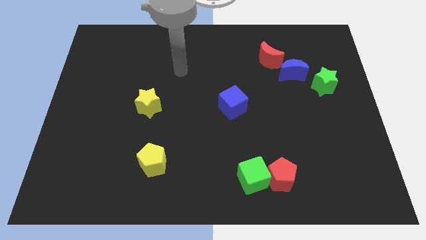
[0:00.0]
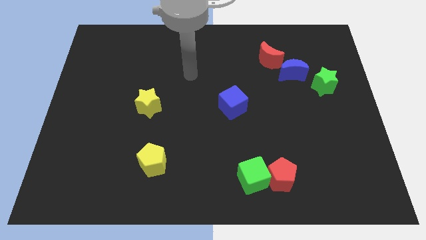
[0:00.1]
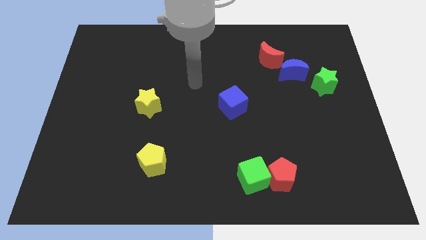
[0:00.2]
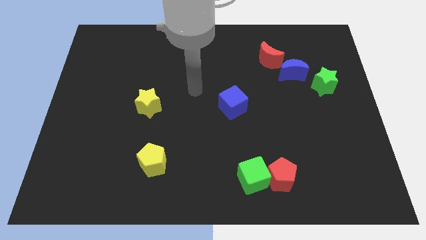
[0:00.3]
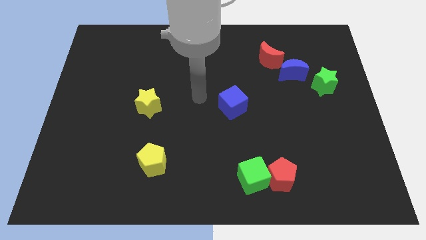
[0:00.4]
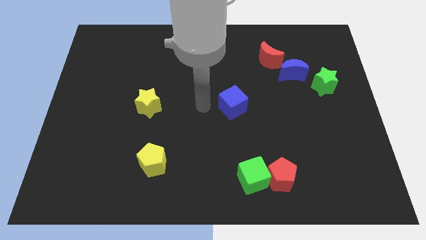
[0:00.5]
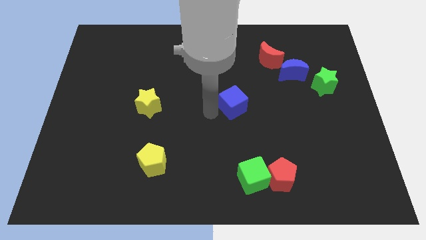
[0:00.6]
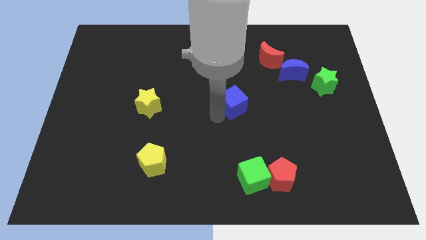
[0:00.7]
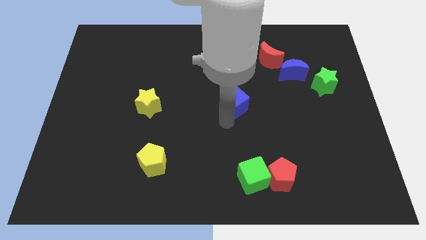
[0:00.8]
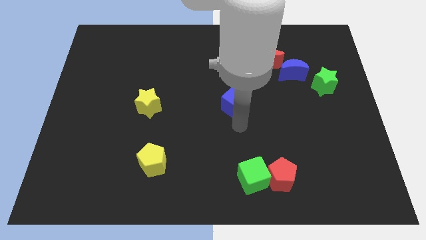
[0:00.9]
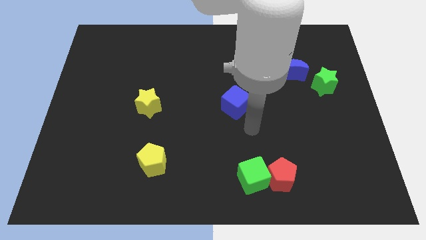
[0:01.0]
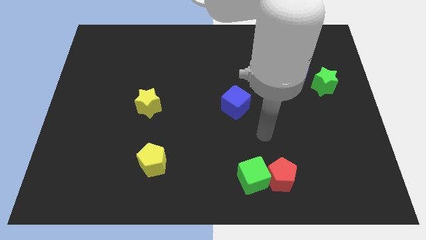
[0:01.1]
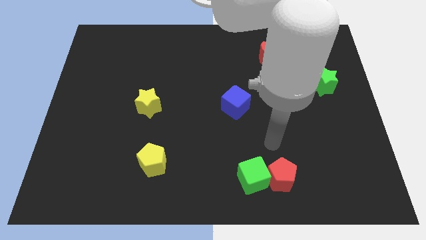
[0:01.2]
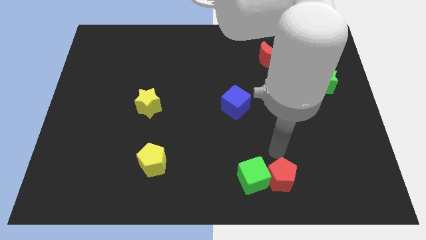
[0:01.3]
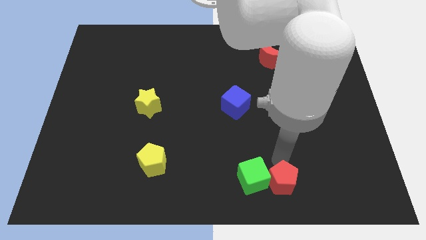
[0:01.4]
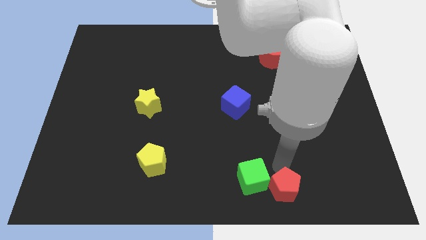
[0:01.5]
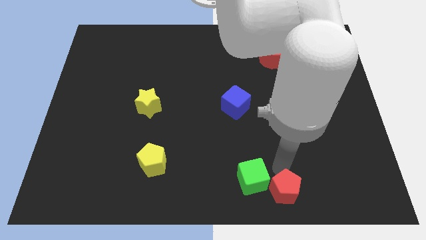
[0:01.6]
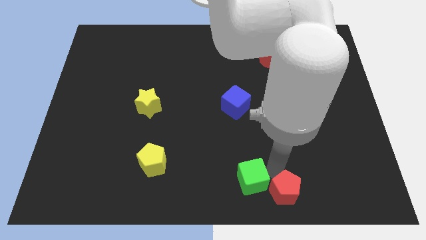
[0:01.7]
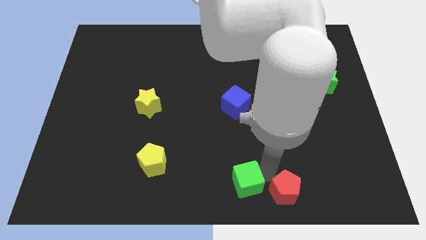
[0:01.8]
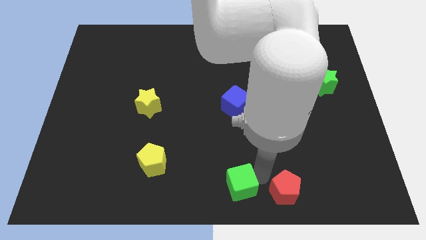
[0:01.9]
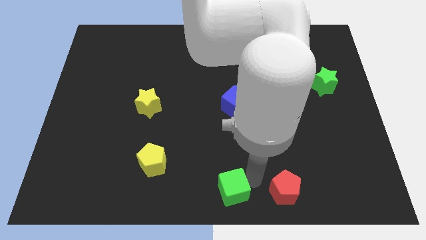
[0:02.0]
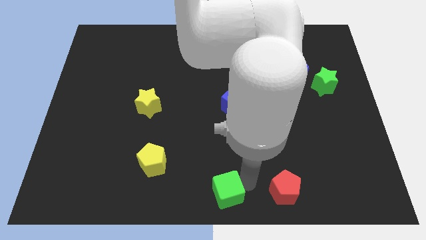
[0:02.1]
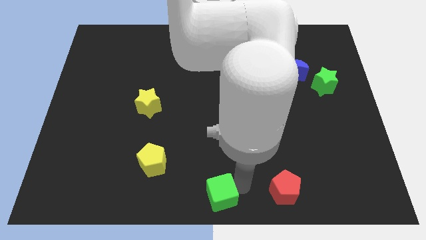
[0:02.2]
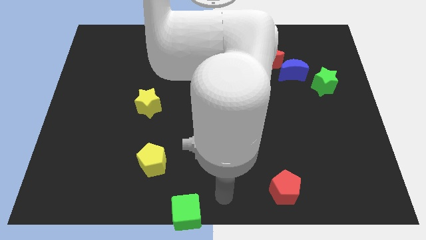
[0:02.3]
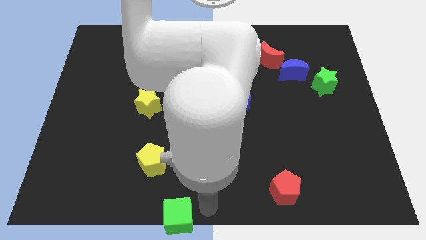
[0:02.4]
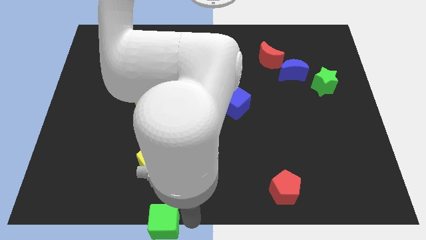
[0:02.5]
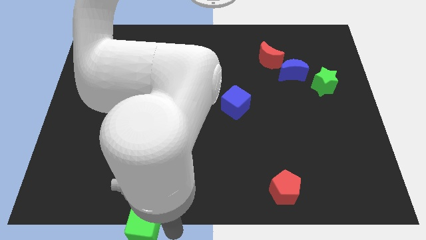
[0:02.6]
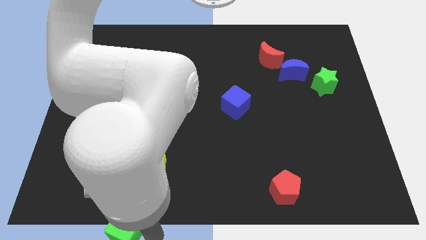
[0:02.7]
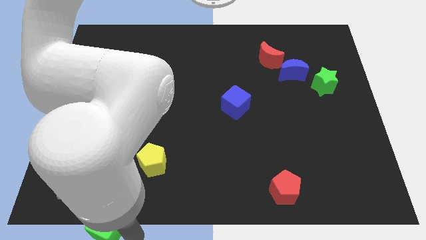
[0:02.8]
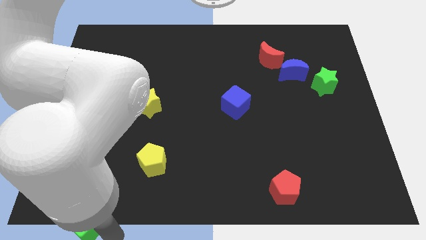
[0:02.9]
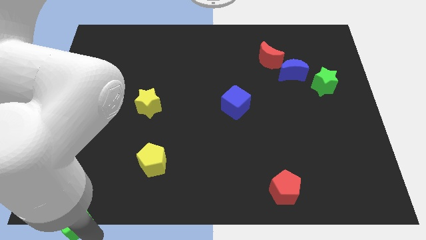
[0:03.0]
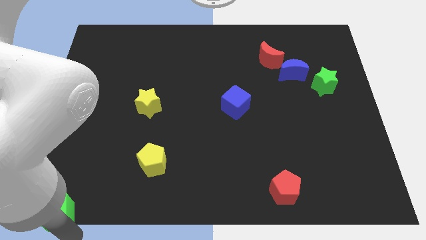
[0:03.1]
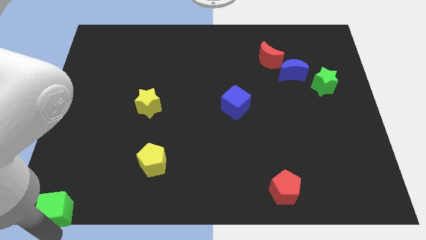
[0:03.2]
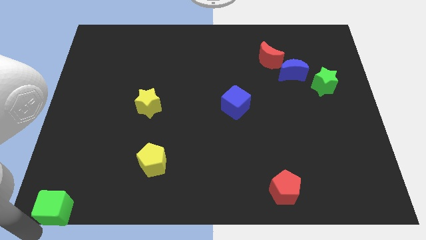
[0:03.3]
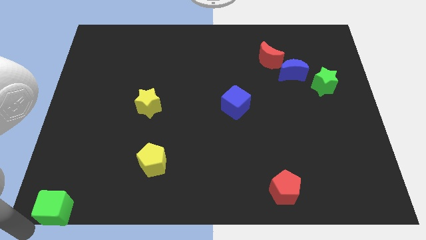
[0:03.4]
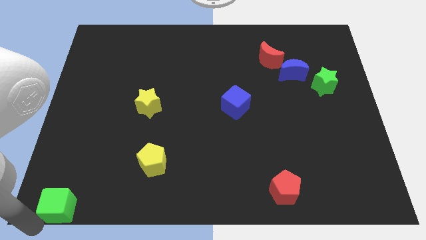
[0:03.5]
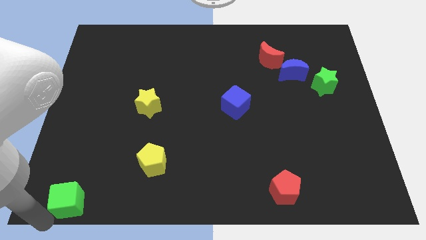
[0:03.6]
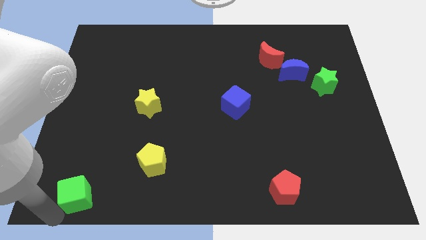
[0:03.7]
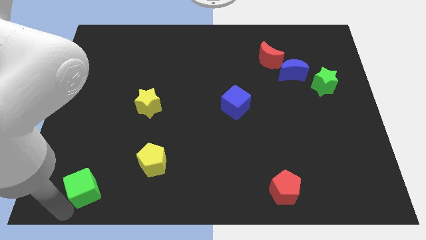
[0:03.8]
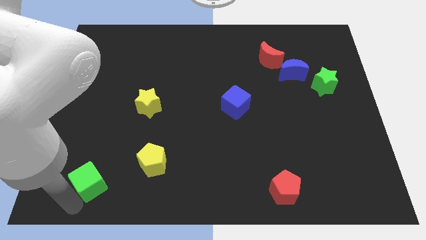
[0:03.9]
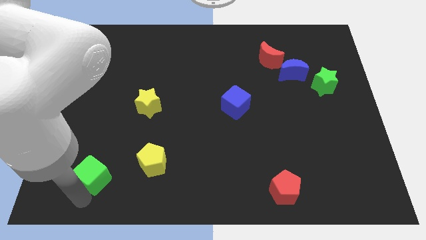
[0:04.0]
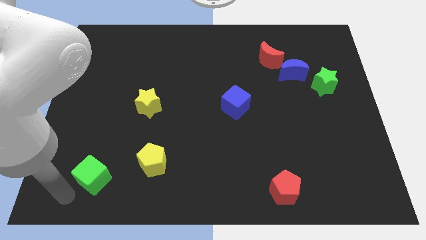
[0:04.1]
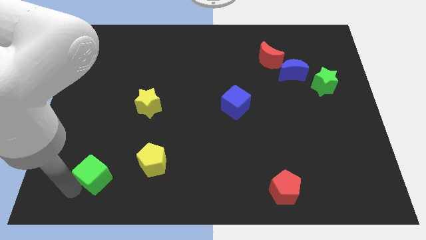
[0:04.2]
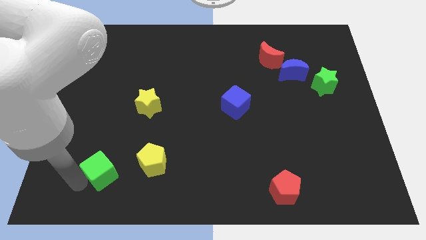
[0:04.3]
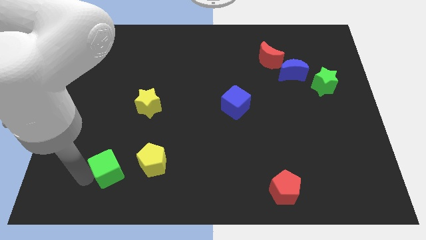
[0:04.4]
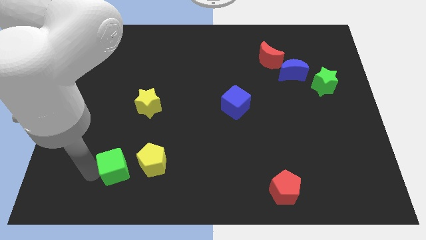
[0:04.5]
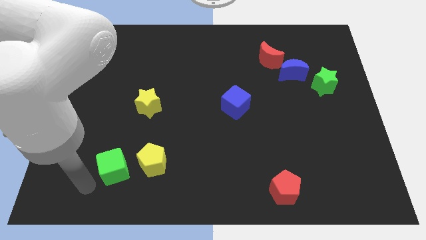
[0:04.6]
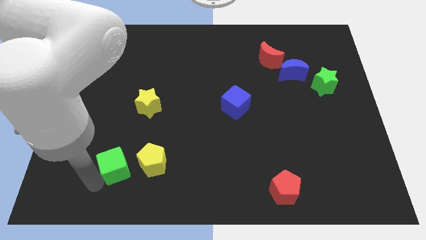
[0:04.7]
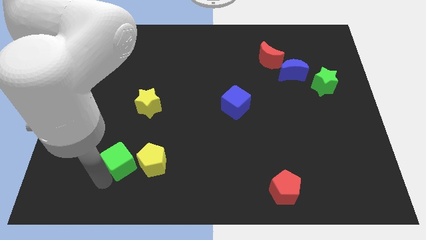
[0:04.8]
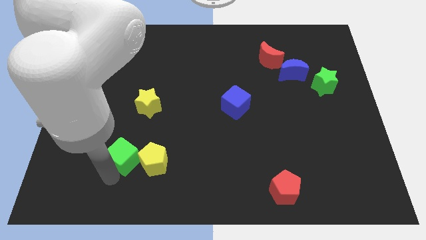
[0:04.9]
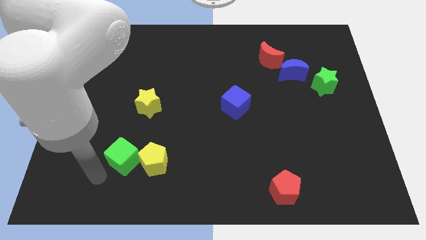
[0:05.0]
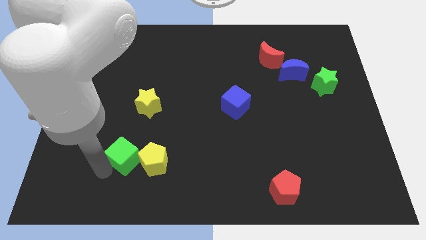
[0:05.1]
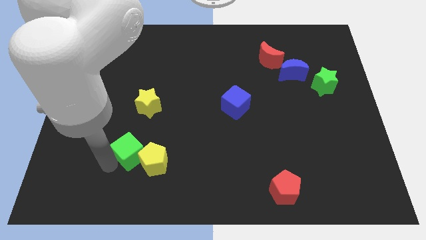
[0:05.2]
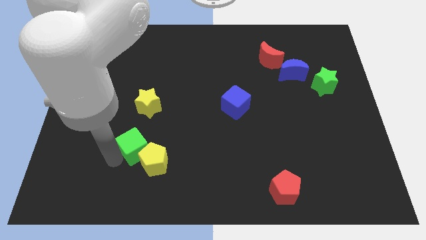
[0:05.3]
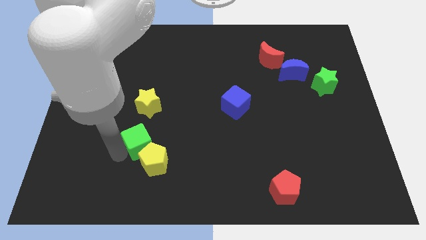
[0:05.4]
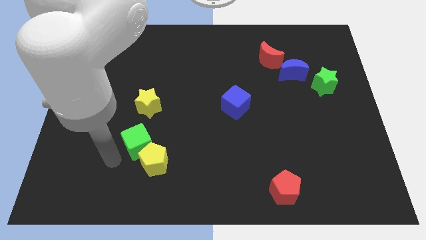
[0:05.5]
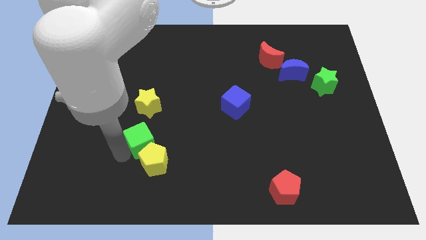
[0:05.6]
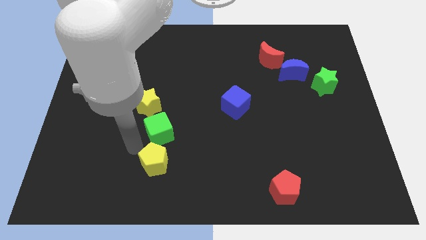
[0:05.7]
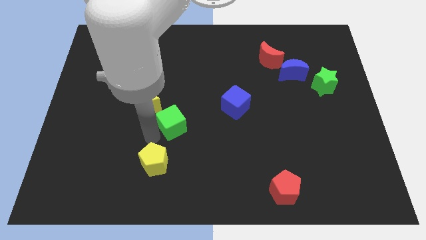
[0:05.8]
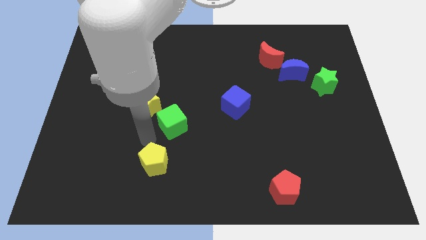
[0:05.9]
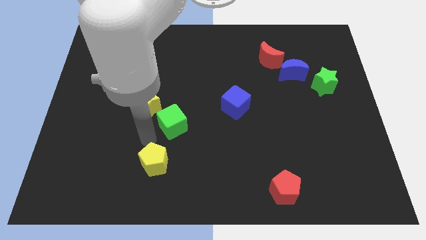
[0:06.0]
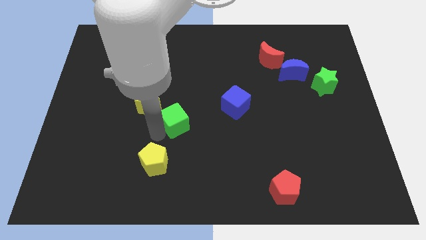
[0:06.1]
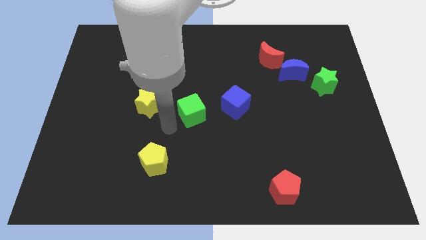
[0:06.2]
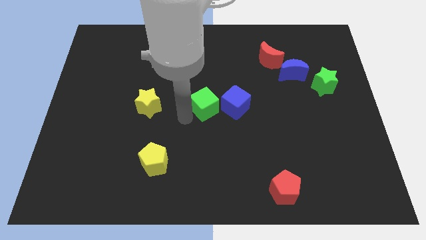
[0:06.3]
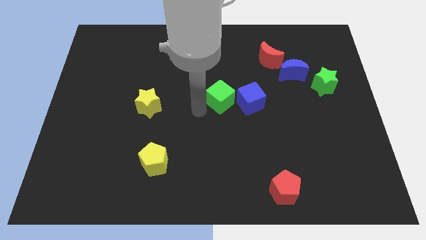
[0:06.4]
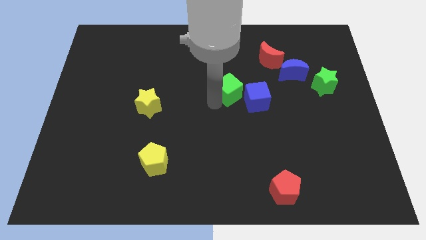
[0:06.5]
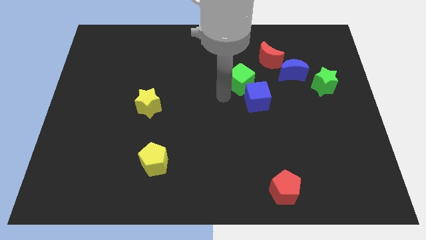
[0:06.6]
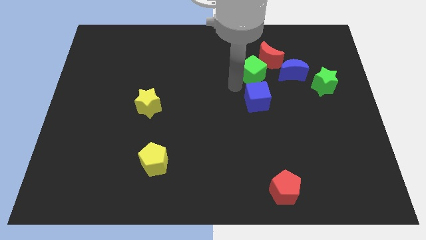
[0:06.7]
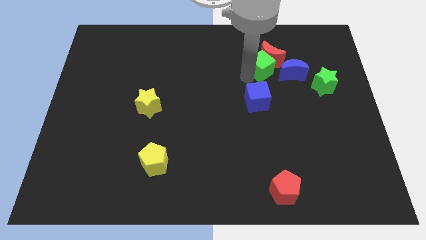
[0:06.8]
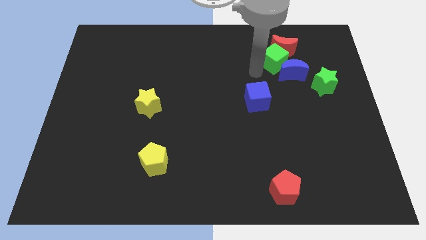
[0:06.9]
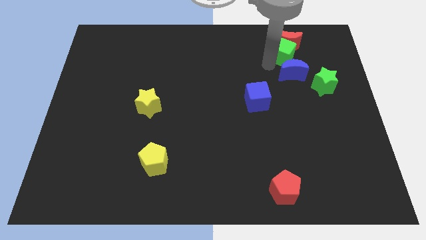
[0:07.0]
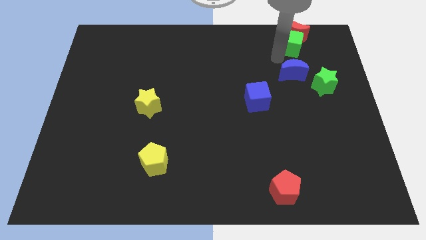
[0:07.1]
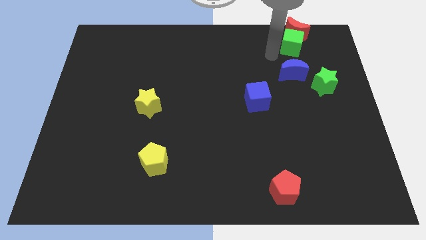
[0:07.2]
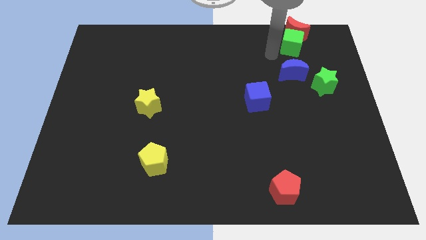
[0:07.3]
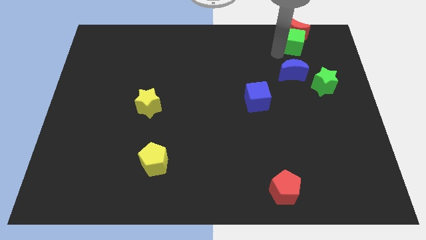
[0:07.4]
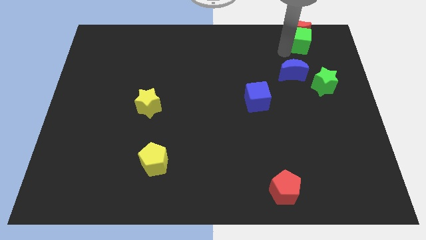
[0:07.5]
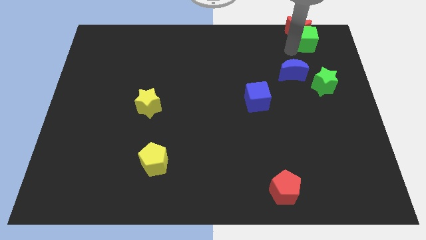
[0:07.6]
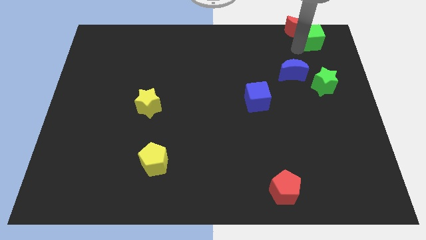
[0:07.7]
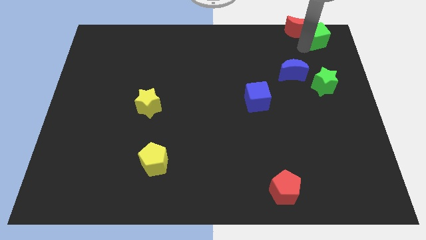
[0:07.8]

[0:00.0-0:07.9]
put the green cube to the top right corner
